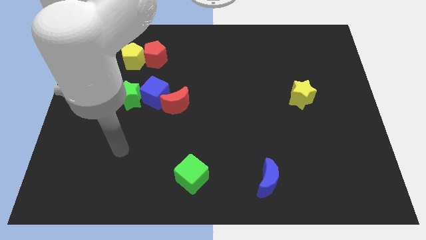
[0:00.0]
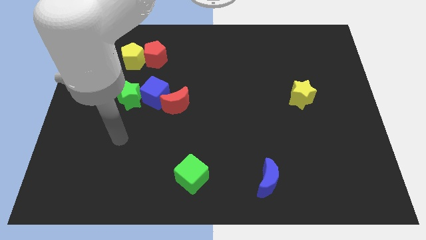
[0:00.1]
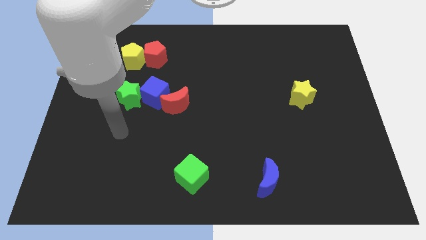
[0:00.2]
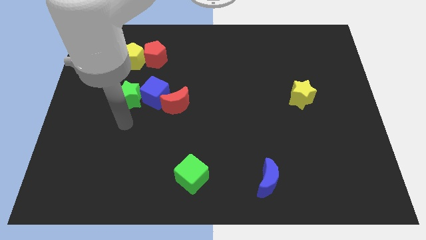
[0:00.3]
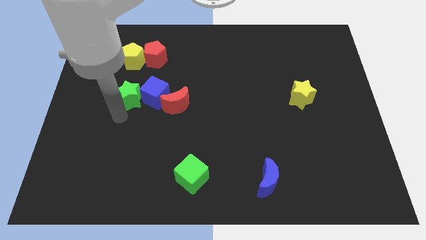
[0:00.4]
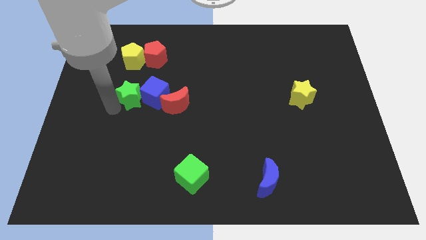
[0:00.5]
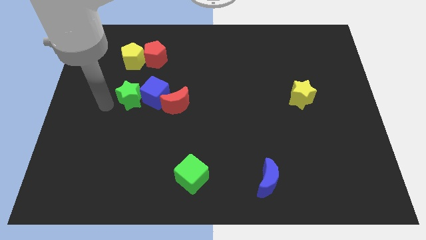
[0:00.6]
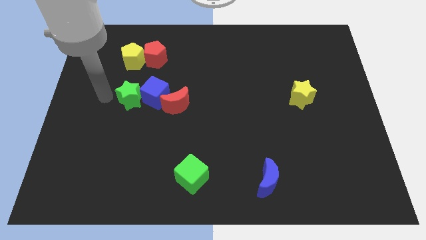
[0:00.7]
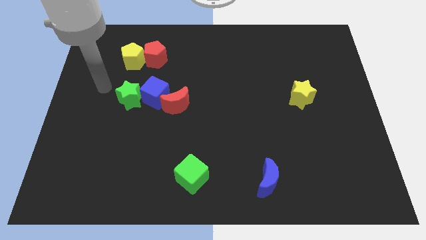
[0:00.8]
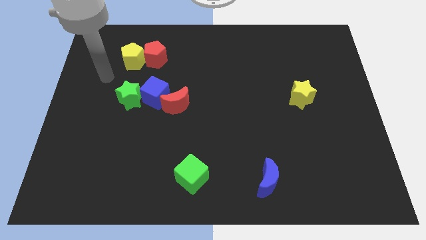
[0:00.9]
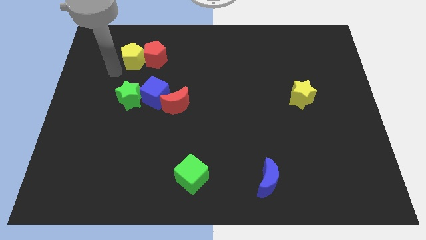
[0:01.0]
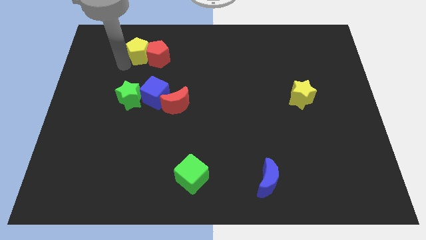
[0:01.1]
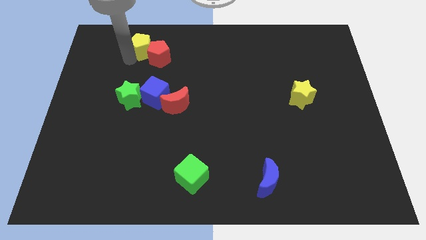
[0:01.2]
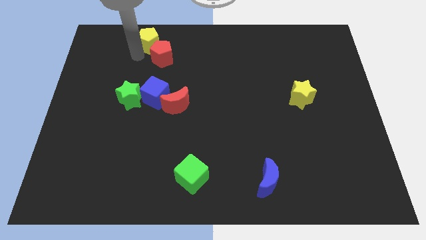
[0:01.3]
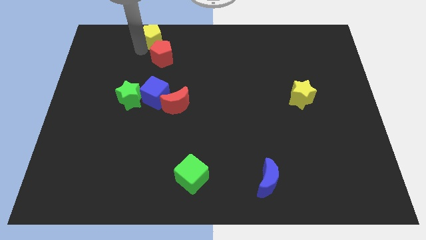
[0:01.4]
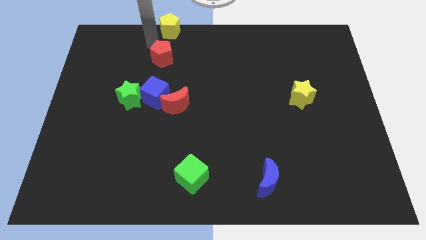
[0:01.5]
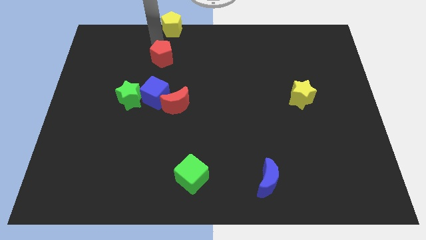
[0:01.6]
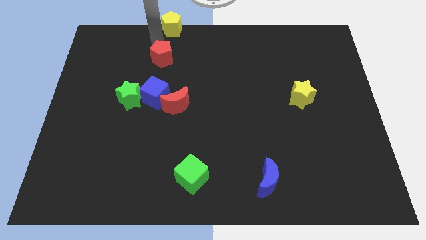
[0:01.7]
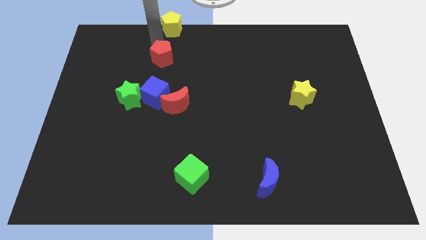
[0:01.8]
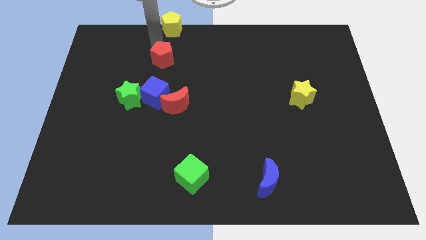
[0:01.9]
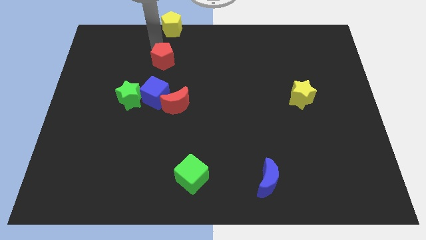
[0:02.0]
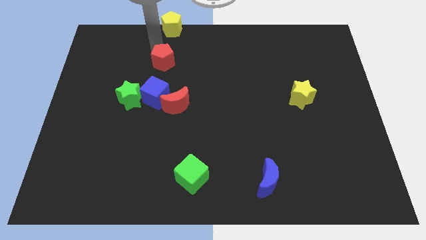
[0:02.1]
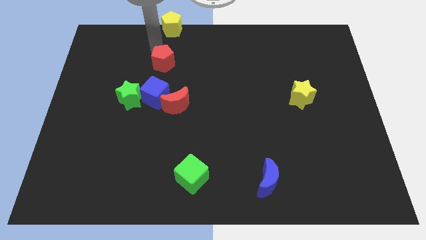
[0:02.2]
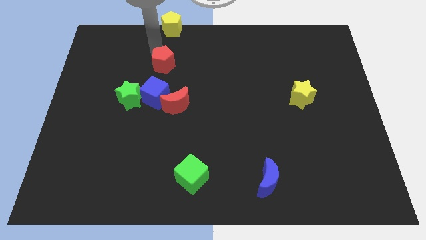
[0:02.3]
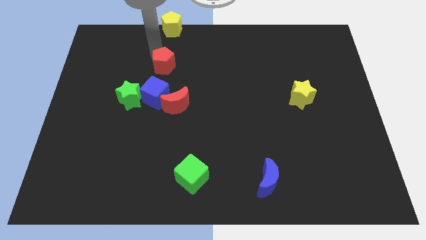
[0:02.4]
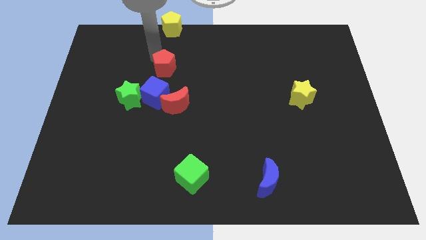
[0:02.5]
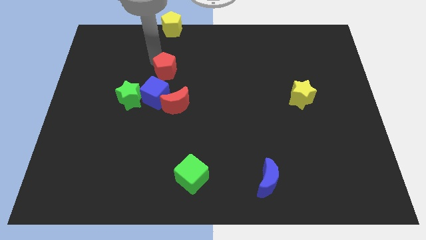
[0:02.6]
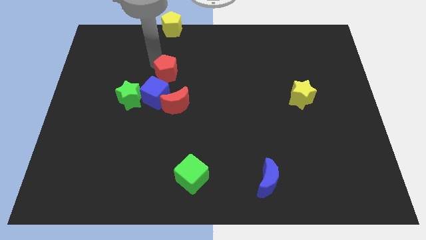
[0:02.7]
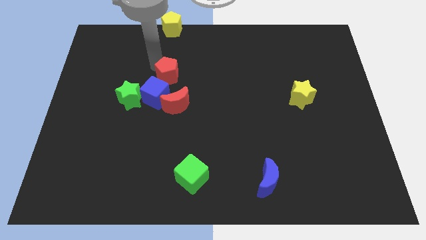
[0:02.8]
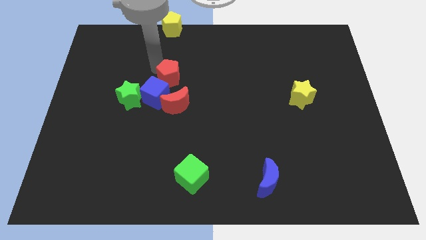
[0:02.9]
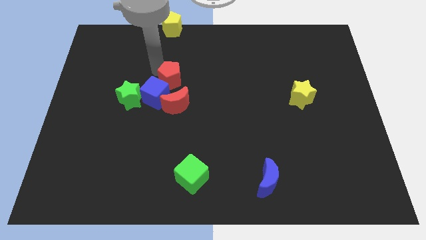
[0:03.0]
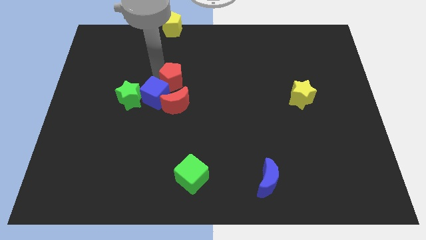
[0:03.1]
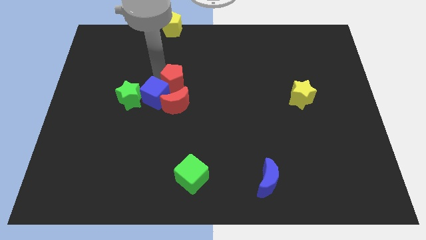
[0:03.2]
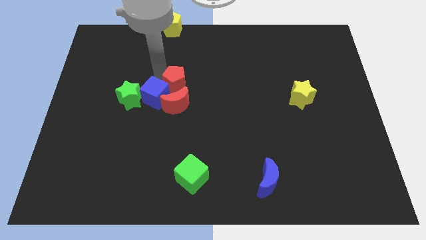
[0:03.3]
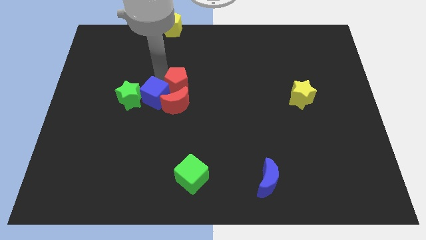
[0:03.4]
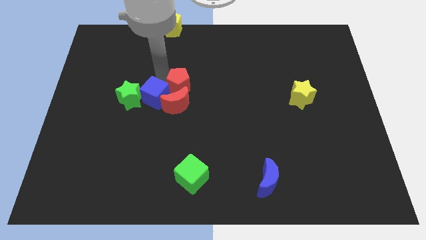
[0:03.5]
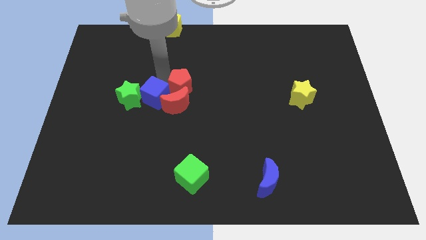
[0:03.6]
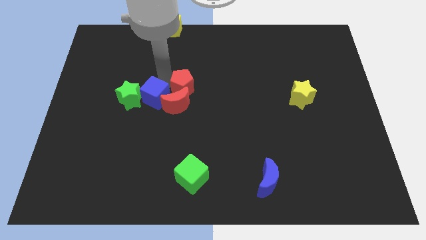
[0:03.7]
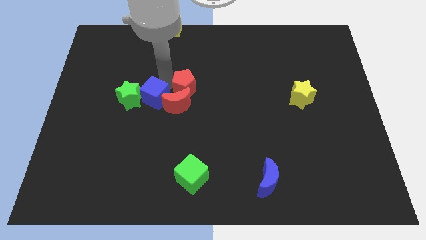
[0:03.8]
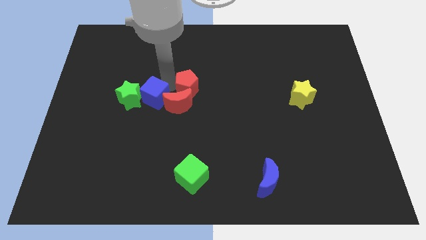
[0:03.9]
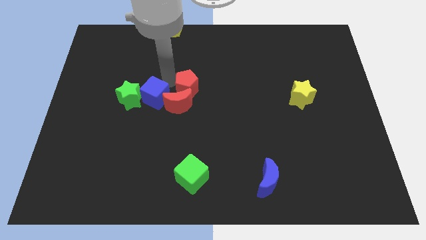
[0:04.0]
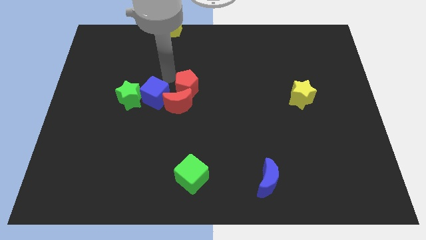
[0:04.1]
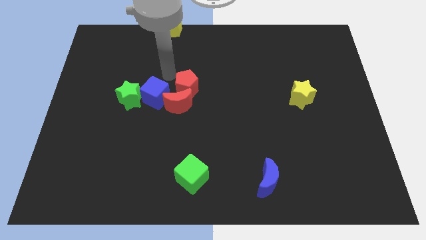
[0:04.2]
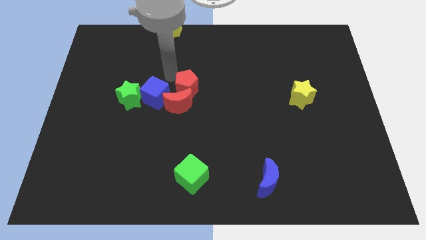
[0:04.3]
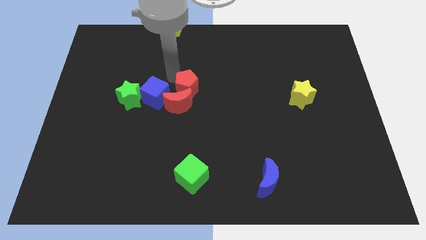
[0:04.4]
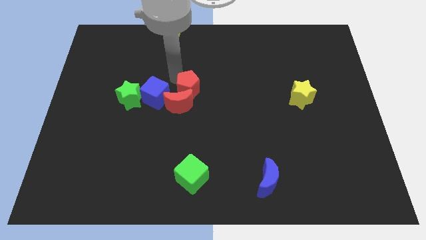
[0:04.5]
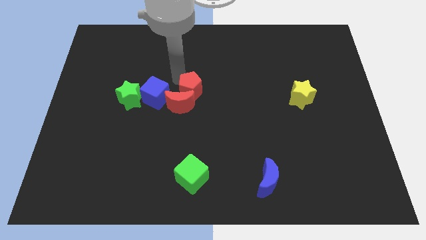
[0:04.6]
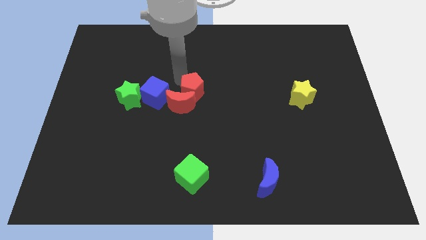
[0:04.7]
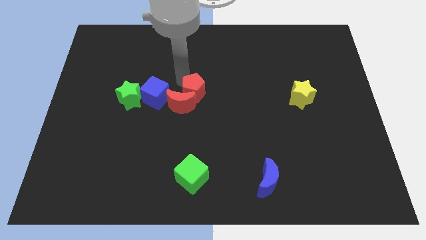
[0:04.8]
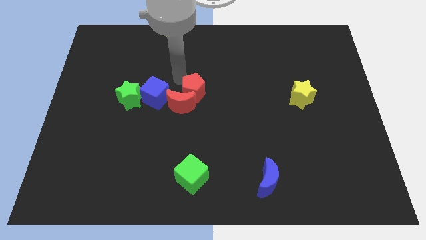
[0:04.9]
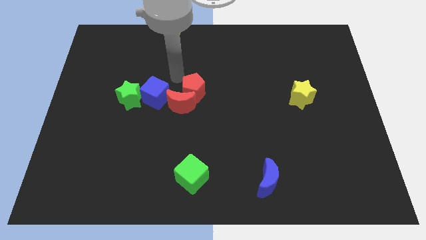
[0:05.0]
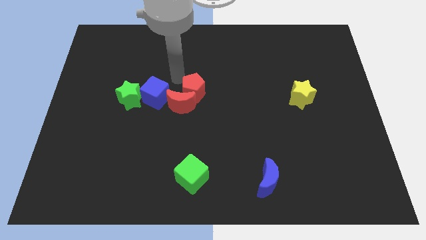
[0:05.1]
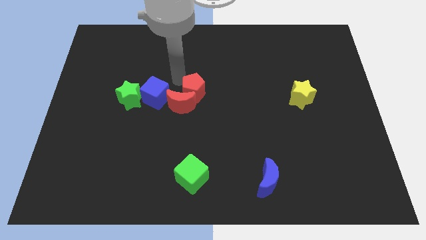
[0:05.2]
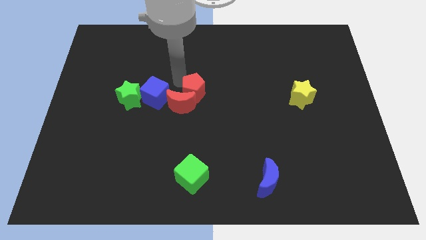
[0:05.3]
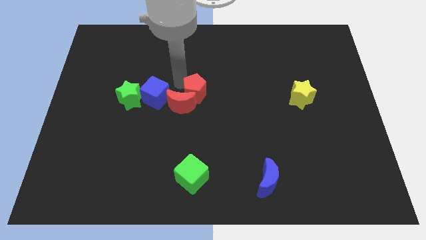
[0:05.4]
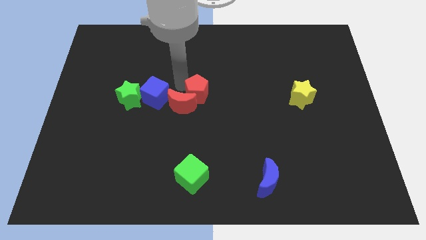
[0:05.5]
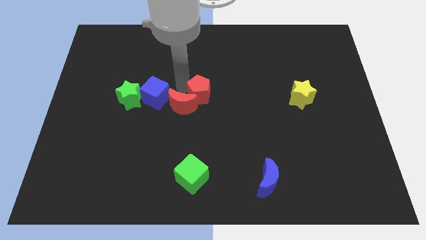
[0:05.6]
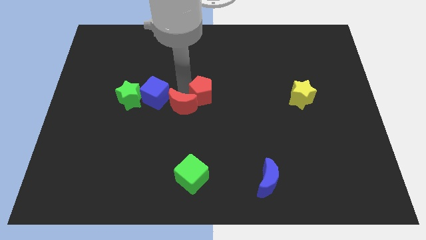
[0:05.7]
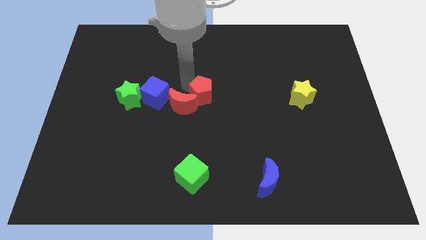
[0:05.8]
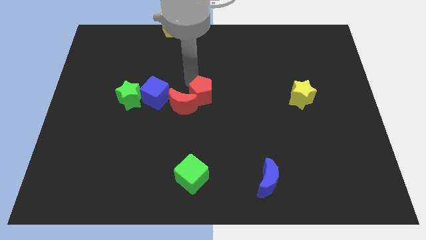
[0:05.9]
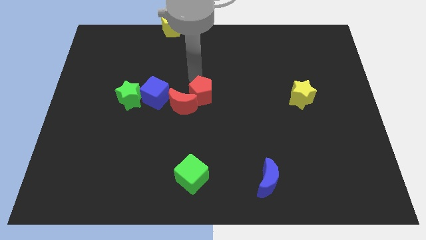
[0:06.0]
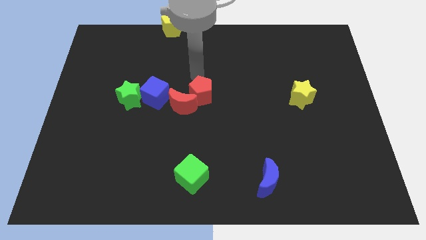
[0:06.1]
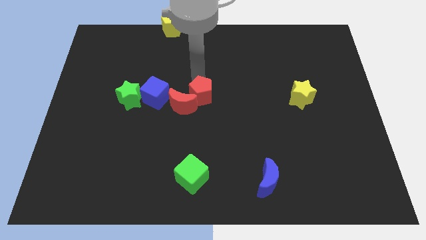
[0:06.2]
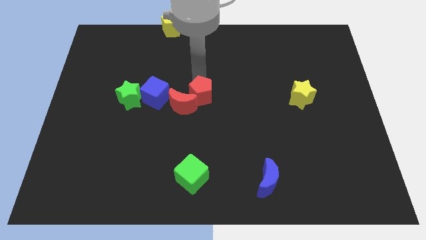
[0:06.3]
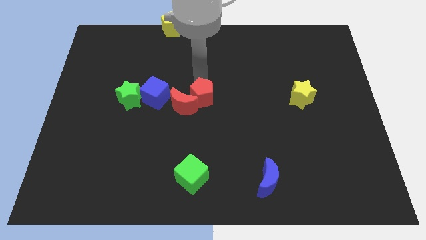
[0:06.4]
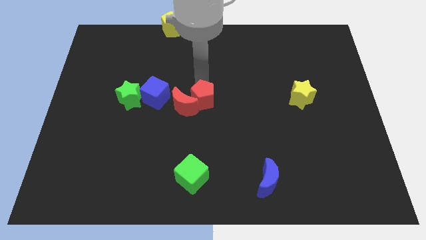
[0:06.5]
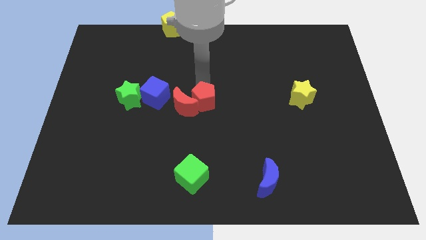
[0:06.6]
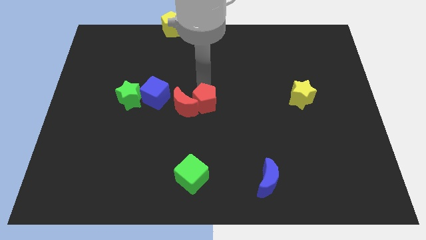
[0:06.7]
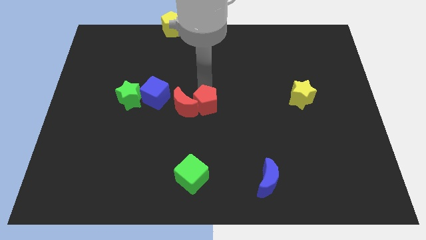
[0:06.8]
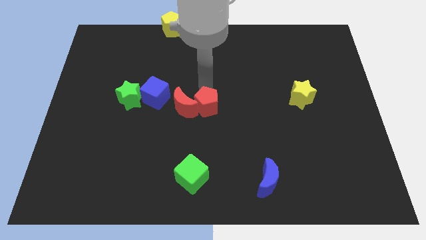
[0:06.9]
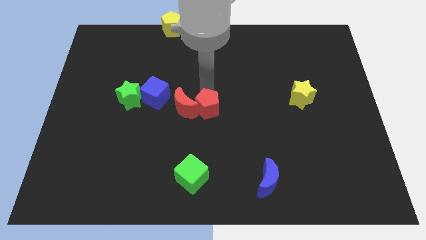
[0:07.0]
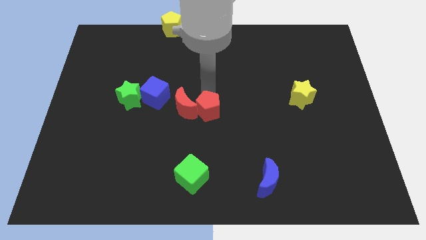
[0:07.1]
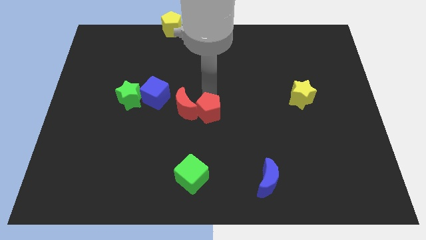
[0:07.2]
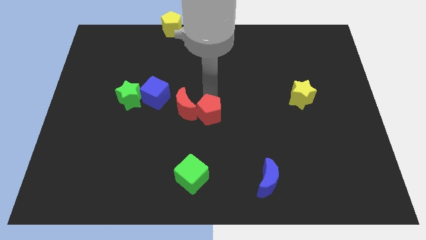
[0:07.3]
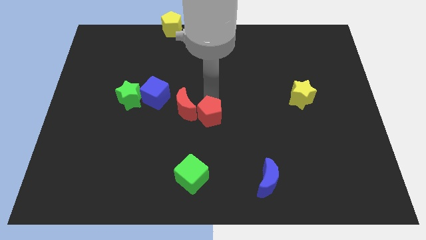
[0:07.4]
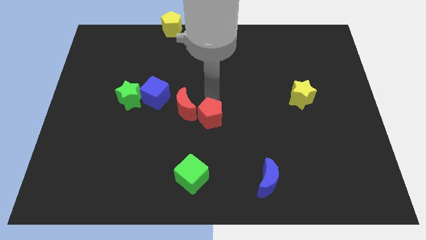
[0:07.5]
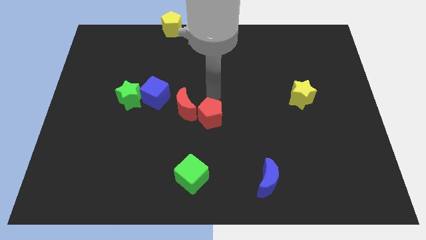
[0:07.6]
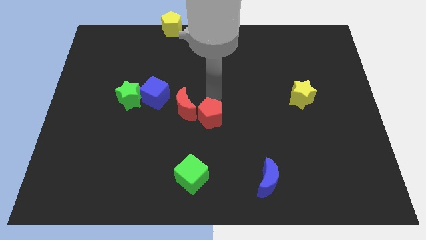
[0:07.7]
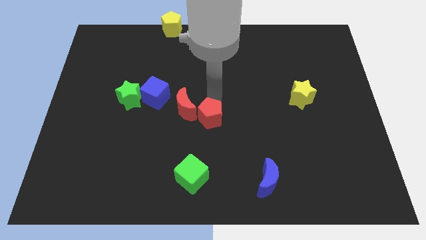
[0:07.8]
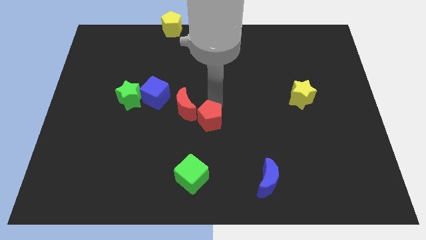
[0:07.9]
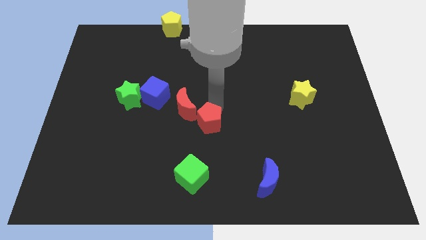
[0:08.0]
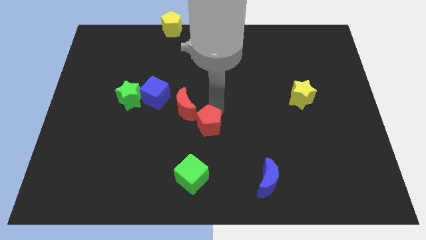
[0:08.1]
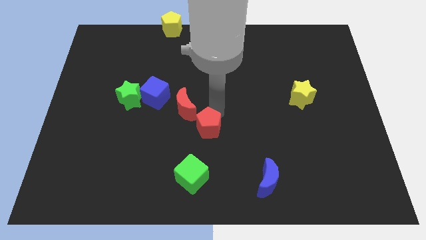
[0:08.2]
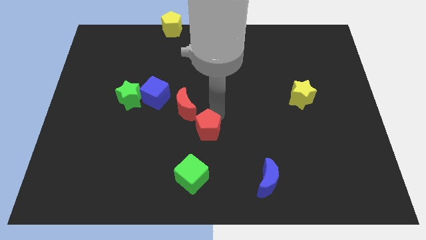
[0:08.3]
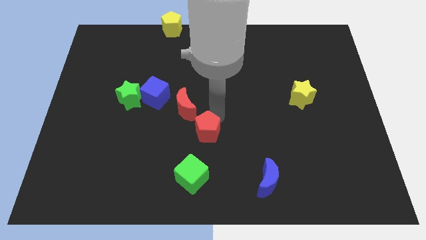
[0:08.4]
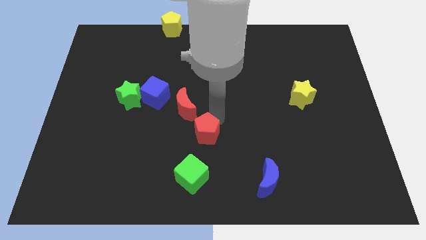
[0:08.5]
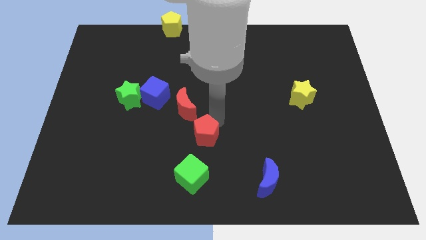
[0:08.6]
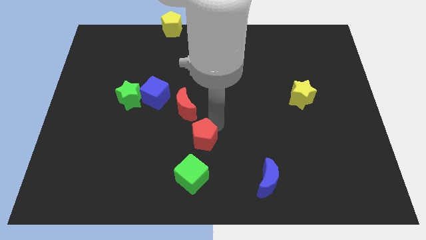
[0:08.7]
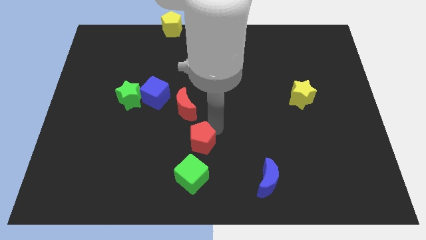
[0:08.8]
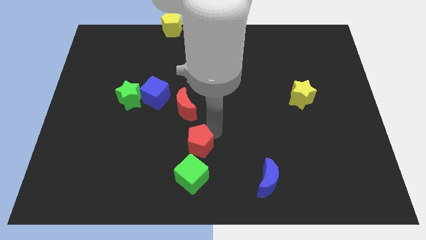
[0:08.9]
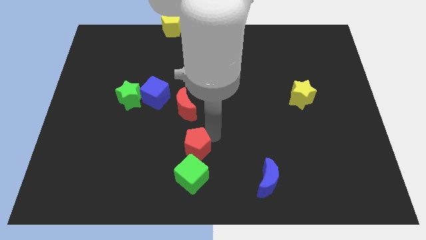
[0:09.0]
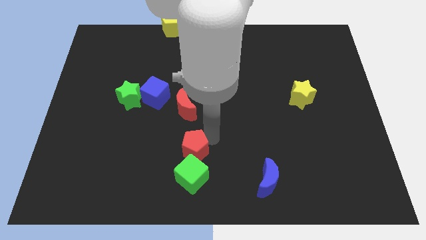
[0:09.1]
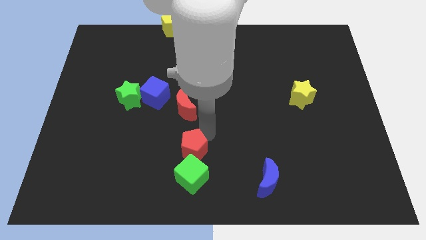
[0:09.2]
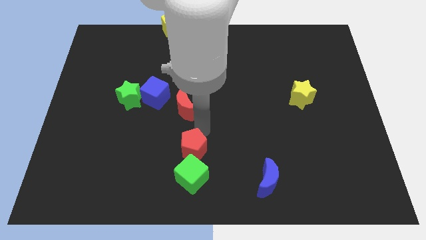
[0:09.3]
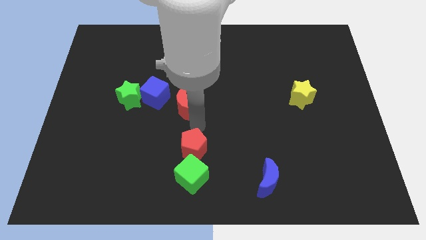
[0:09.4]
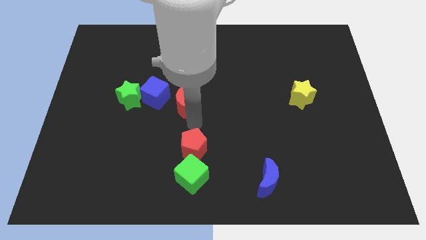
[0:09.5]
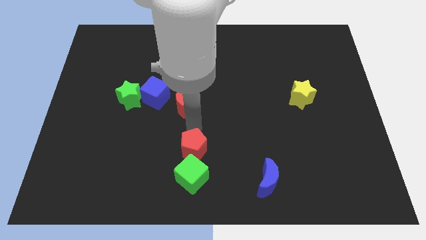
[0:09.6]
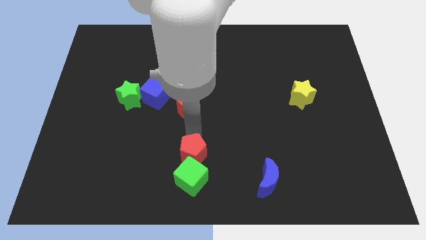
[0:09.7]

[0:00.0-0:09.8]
push the red pentagon to the green cube
